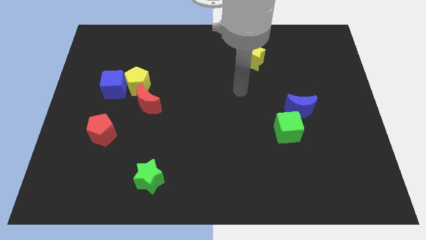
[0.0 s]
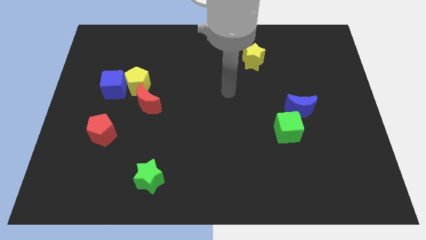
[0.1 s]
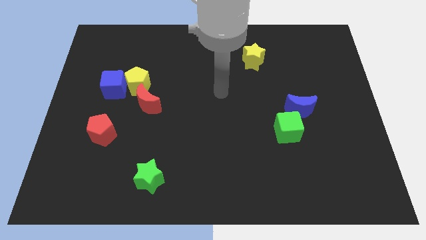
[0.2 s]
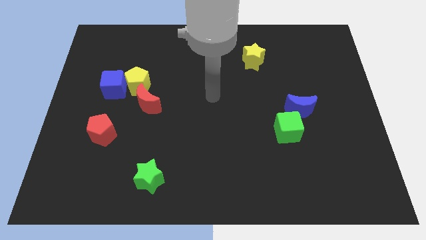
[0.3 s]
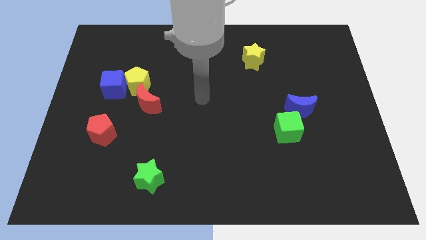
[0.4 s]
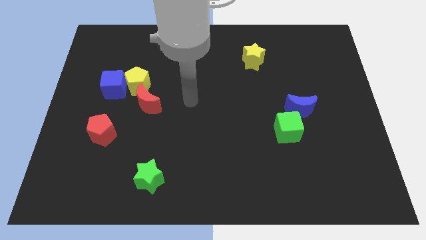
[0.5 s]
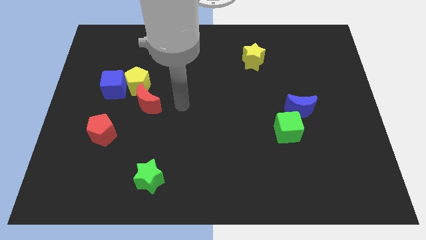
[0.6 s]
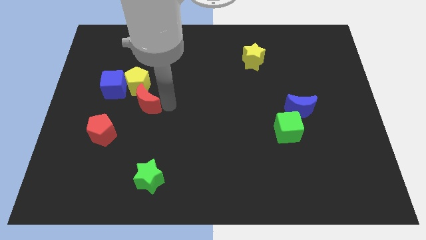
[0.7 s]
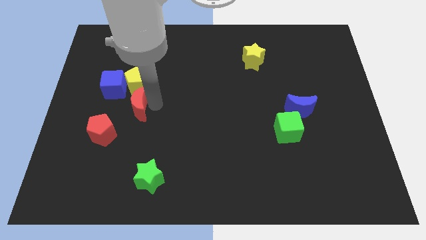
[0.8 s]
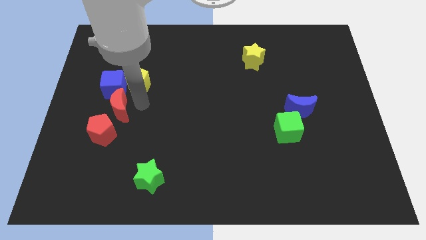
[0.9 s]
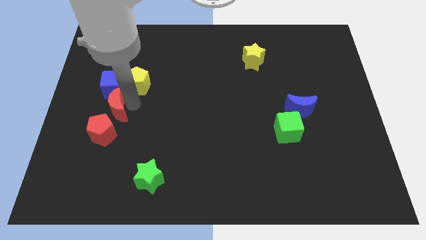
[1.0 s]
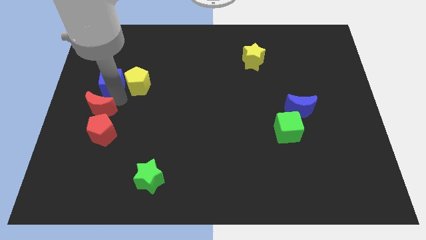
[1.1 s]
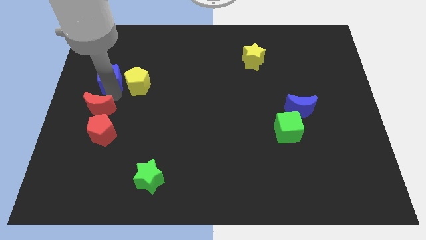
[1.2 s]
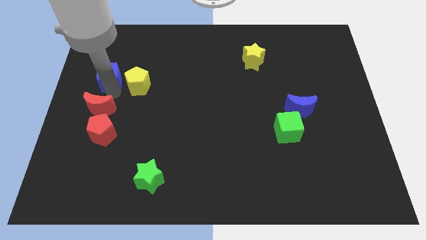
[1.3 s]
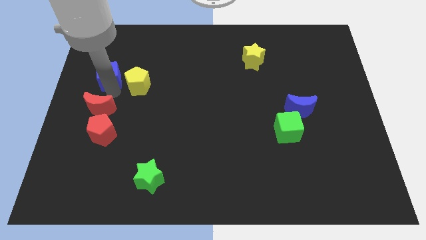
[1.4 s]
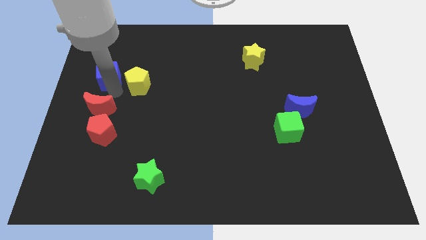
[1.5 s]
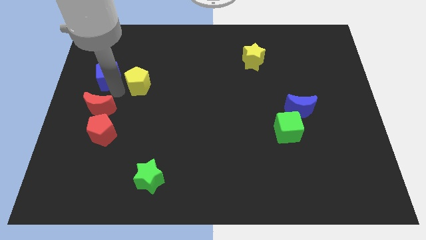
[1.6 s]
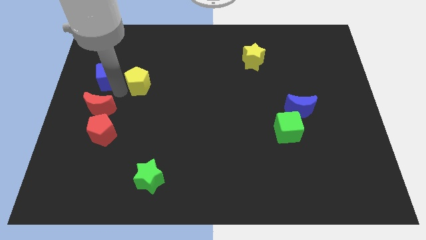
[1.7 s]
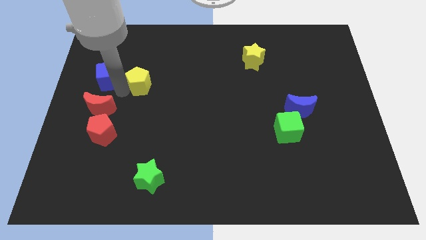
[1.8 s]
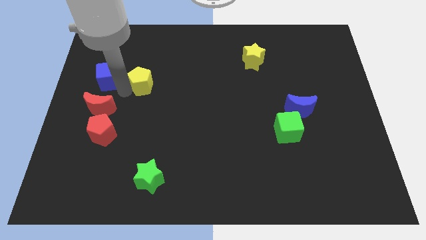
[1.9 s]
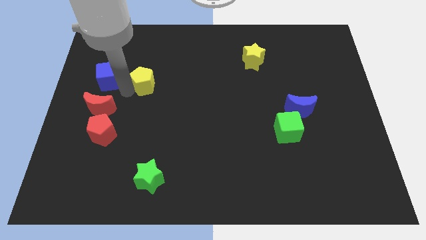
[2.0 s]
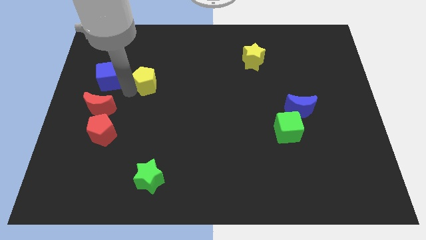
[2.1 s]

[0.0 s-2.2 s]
pull the yellow pentagon apart from the blue cube and red moon

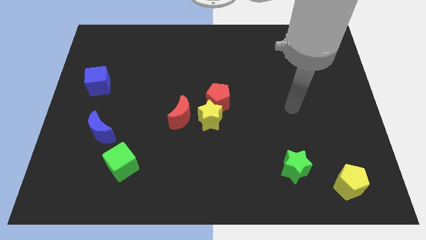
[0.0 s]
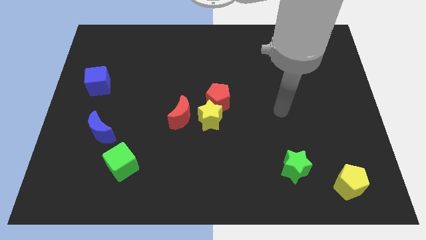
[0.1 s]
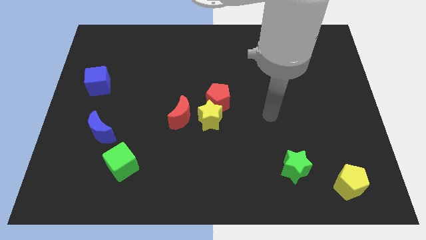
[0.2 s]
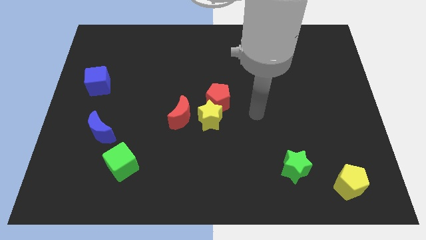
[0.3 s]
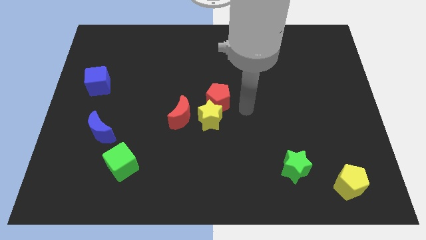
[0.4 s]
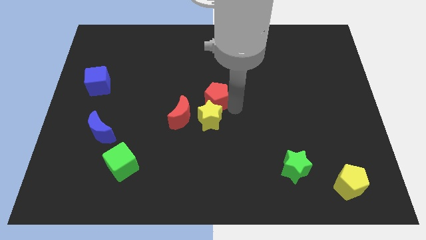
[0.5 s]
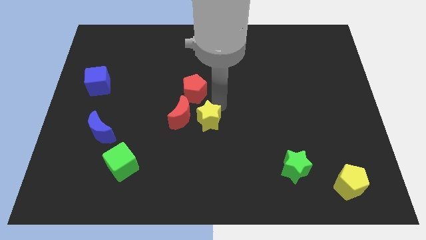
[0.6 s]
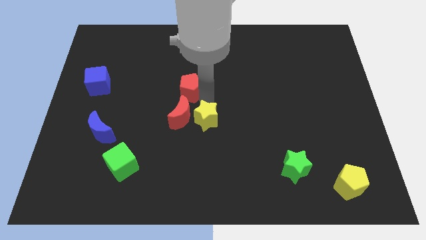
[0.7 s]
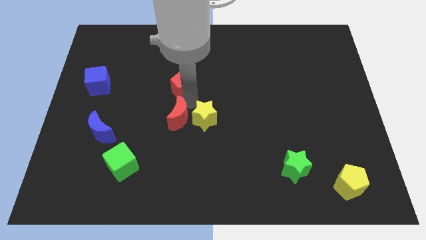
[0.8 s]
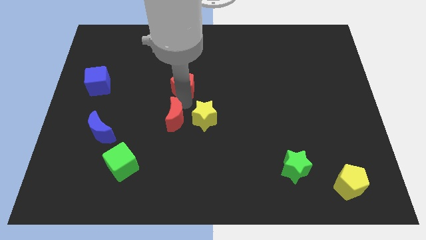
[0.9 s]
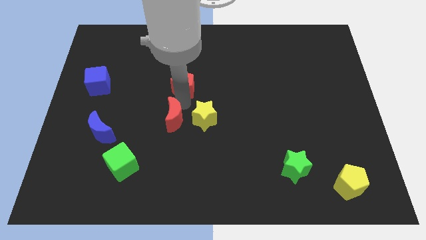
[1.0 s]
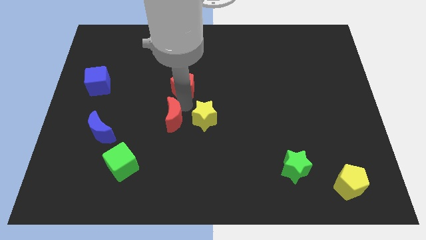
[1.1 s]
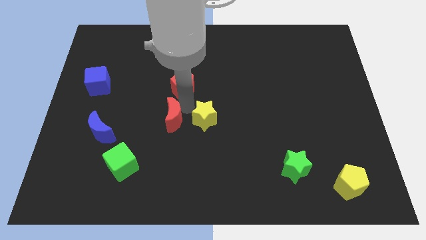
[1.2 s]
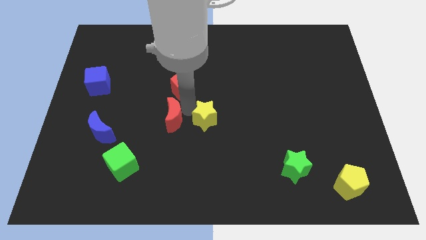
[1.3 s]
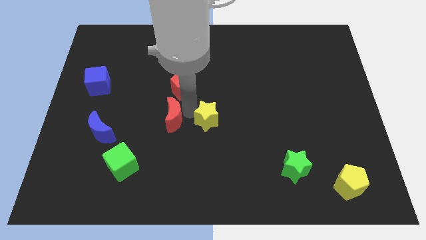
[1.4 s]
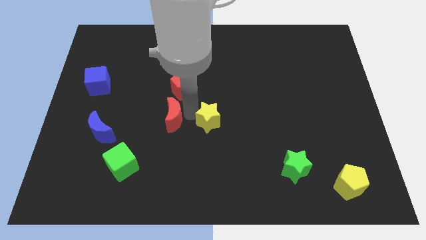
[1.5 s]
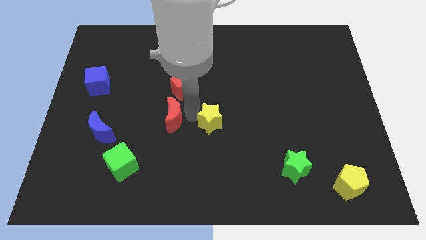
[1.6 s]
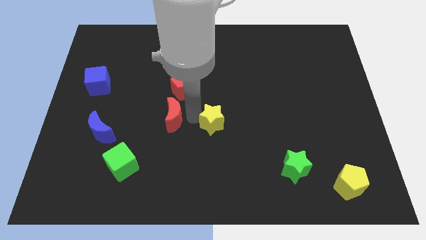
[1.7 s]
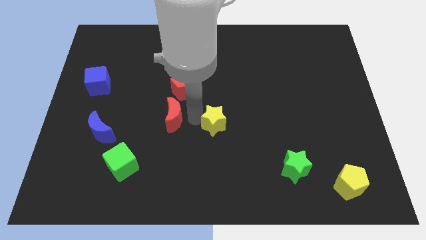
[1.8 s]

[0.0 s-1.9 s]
move the yellow star away from the red pentagon and red moon

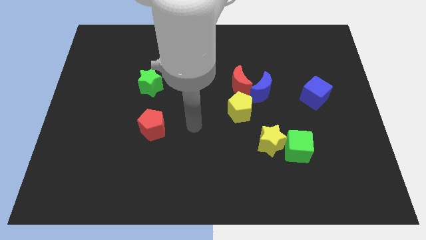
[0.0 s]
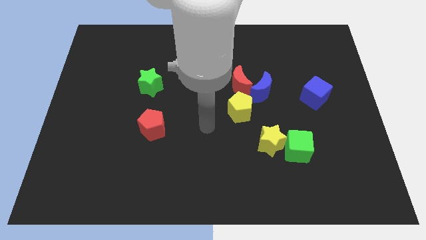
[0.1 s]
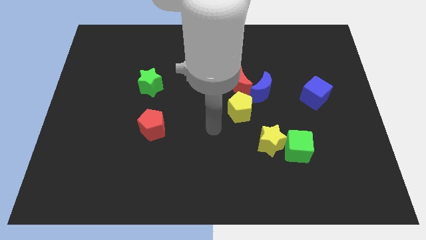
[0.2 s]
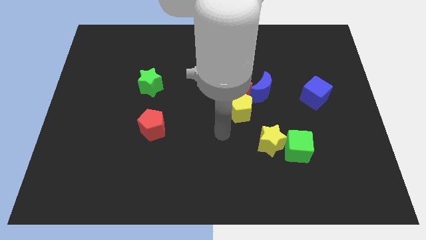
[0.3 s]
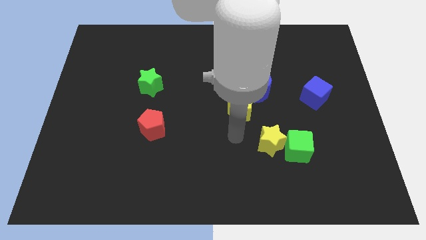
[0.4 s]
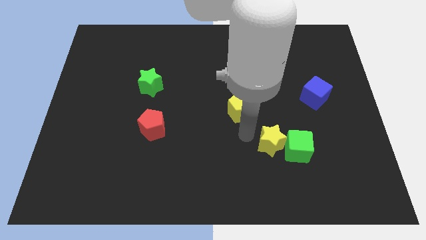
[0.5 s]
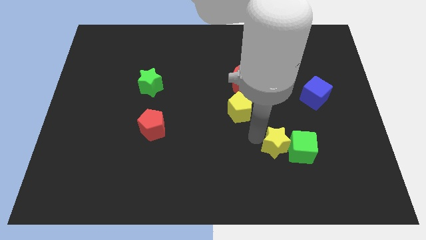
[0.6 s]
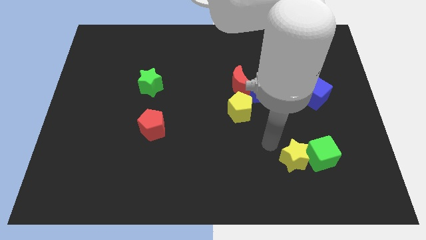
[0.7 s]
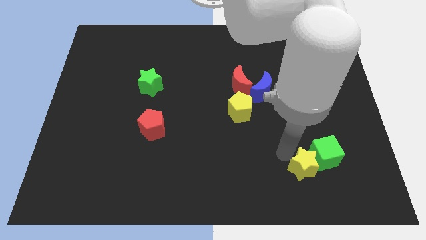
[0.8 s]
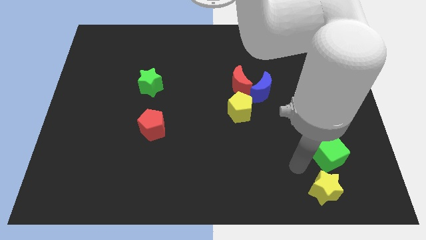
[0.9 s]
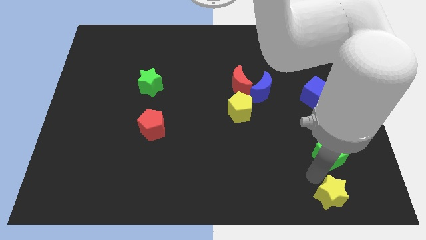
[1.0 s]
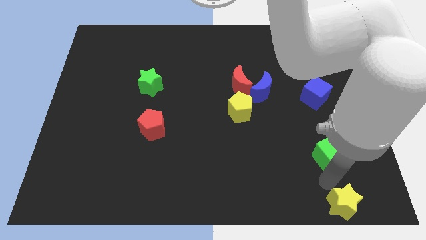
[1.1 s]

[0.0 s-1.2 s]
separate the green cube from the yellow star

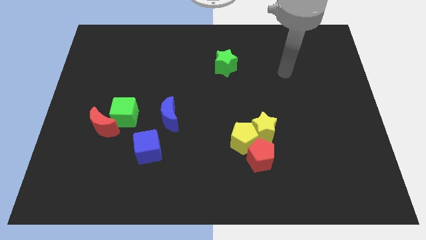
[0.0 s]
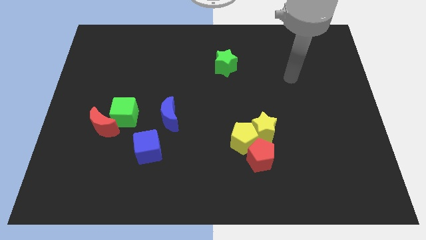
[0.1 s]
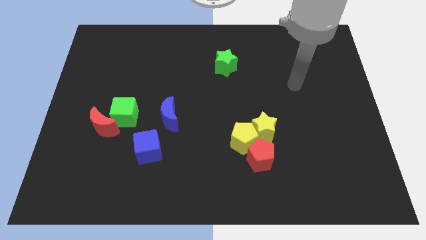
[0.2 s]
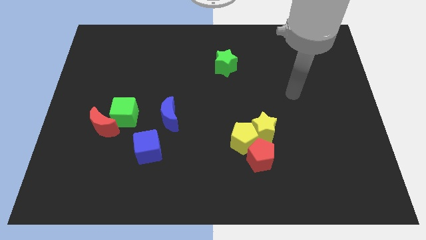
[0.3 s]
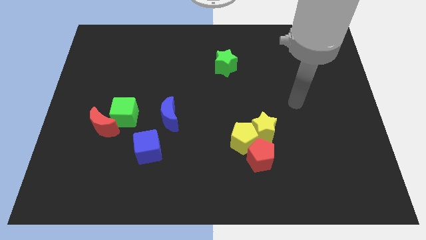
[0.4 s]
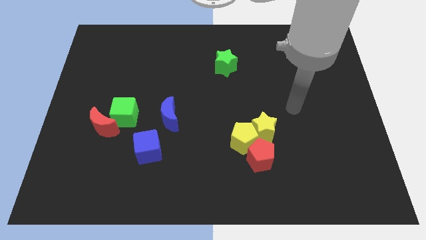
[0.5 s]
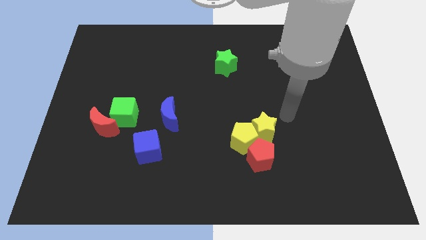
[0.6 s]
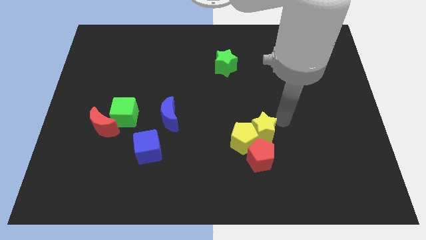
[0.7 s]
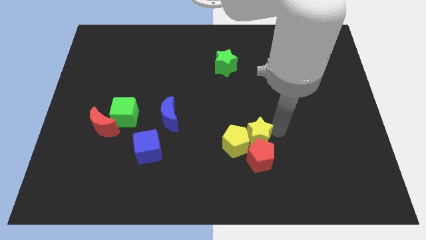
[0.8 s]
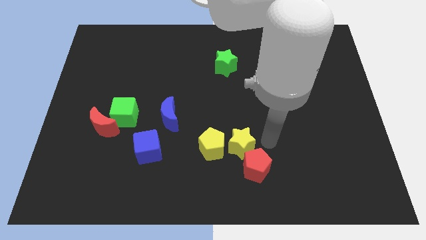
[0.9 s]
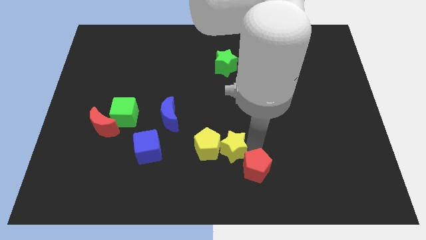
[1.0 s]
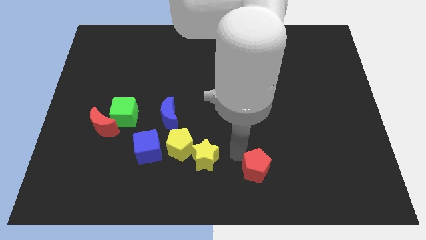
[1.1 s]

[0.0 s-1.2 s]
move the yellow pentagon away from the yellow star and red pentagon

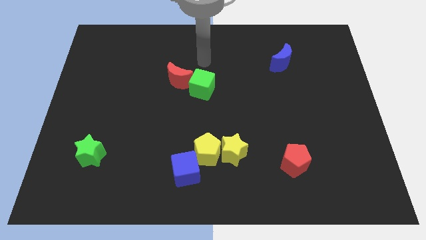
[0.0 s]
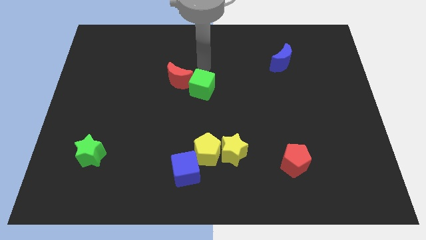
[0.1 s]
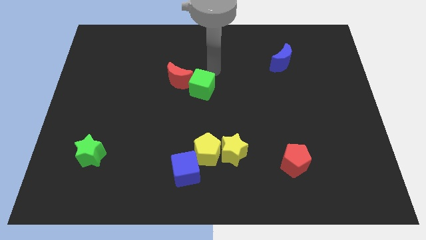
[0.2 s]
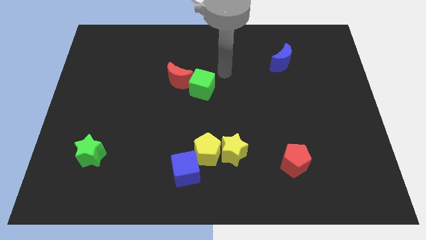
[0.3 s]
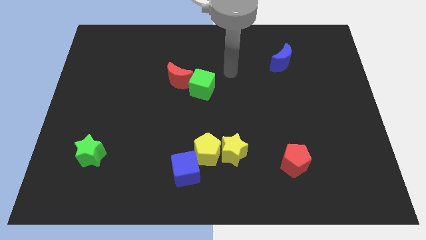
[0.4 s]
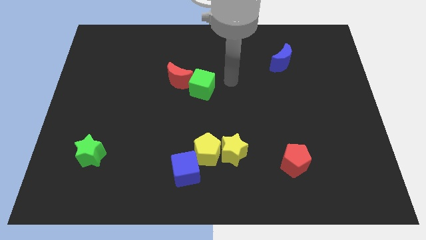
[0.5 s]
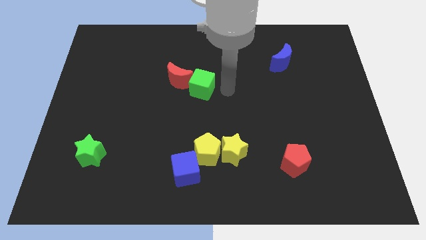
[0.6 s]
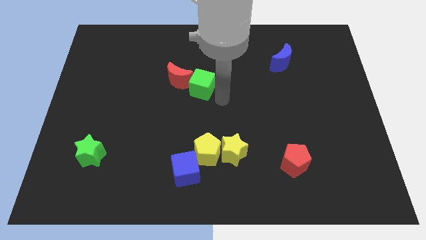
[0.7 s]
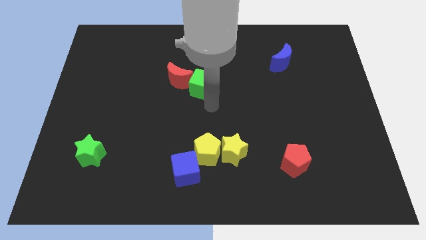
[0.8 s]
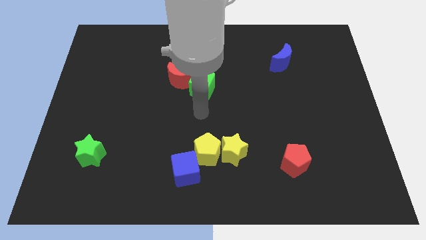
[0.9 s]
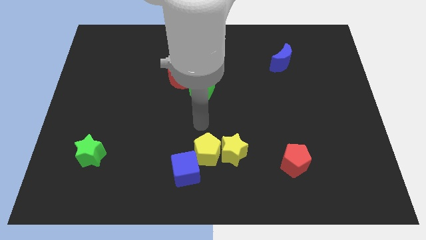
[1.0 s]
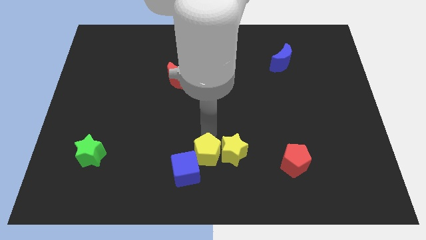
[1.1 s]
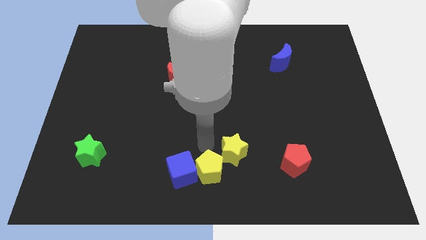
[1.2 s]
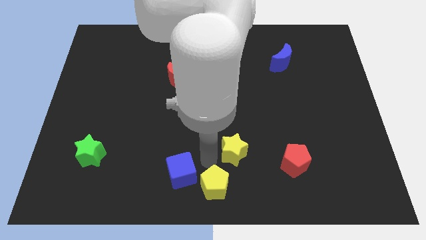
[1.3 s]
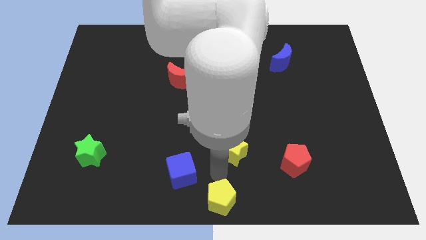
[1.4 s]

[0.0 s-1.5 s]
separate the yellow star from the yellow pentagon

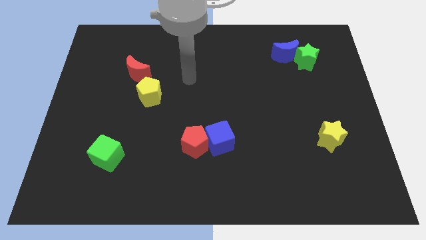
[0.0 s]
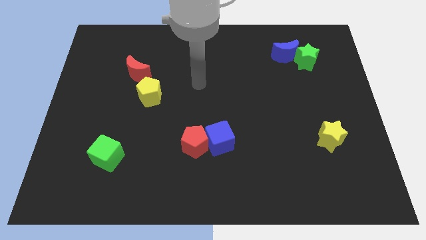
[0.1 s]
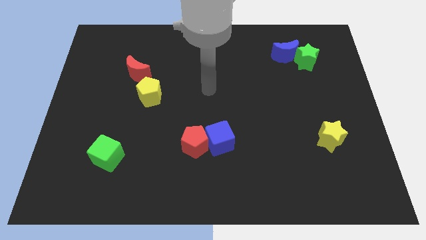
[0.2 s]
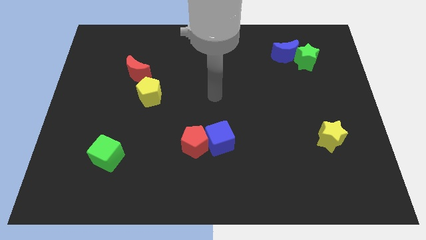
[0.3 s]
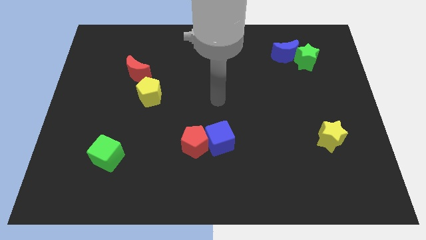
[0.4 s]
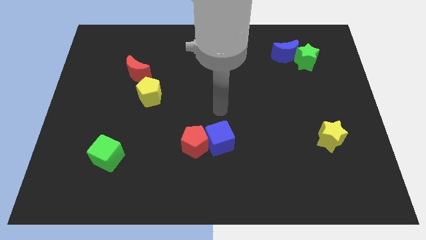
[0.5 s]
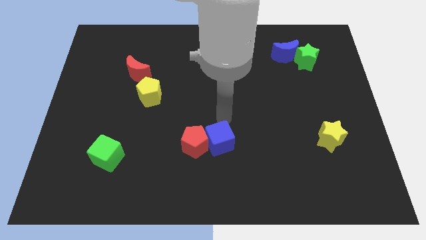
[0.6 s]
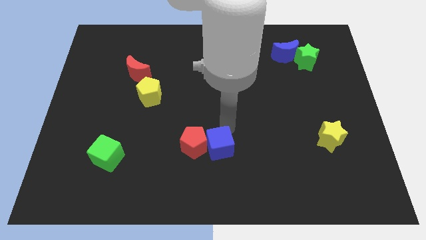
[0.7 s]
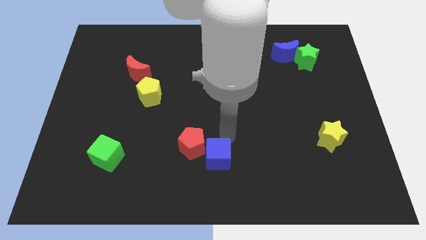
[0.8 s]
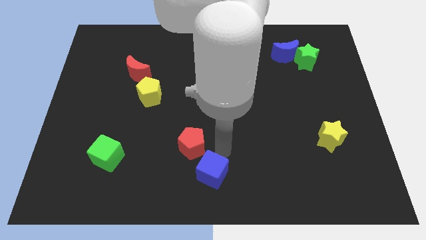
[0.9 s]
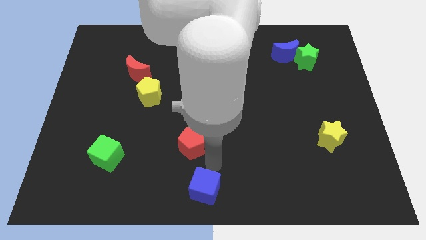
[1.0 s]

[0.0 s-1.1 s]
move the red pentagon away from the blue cube
